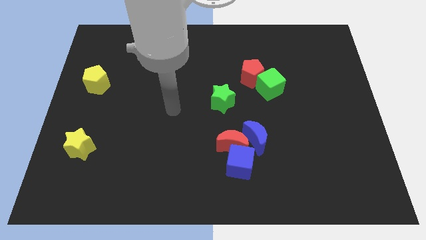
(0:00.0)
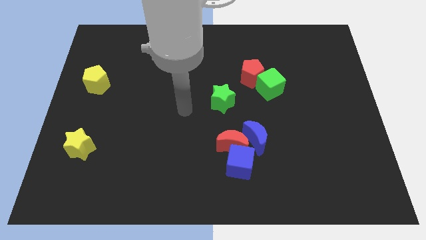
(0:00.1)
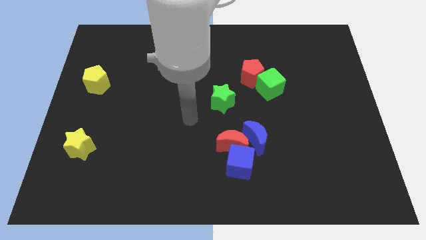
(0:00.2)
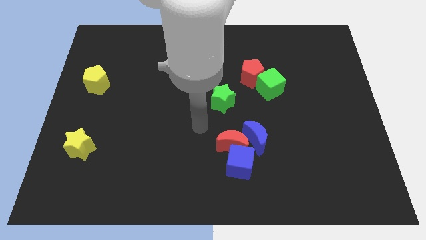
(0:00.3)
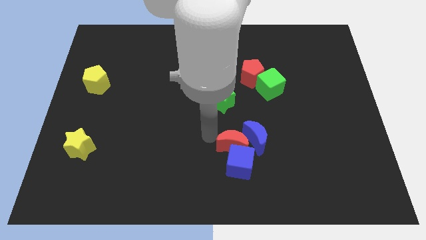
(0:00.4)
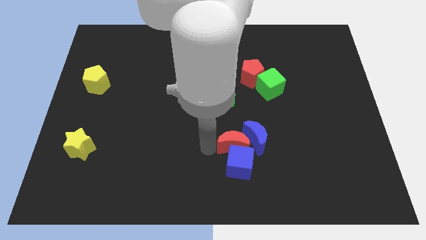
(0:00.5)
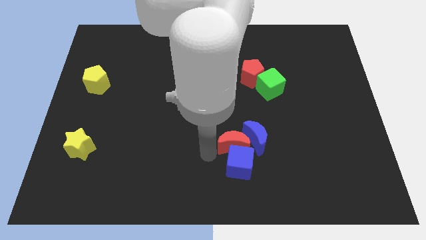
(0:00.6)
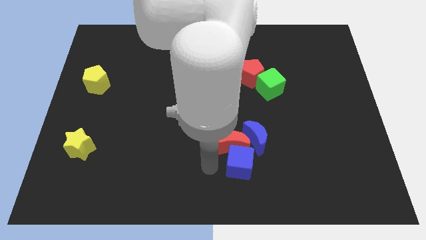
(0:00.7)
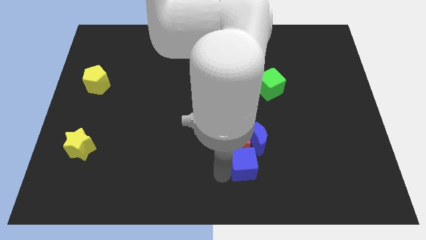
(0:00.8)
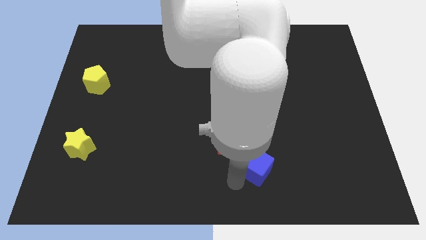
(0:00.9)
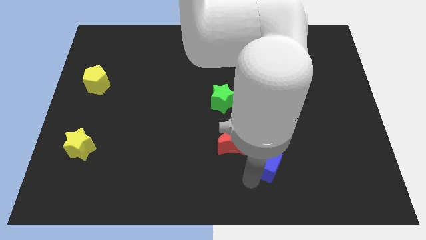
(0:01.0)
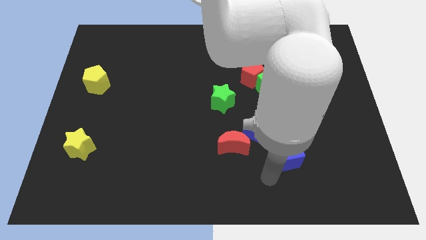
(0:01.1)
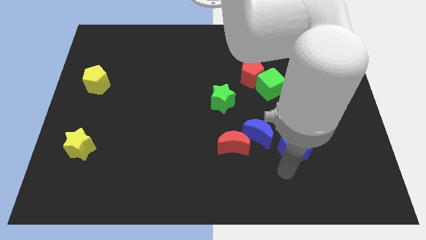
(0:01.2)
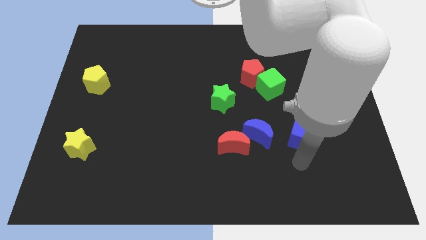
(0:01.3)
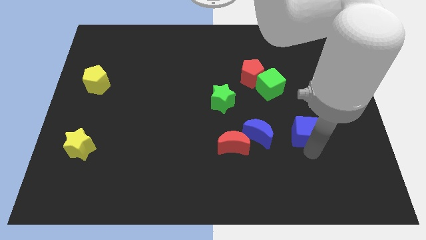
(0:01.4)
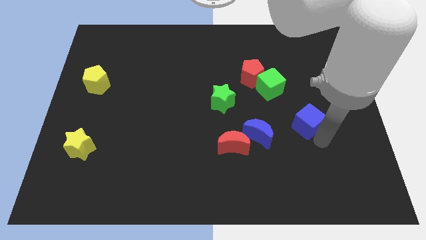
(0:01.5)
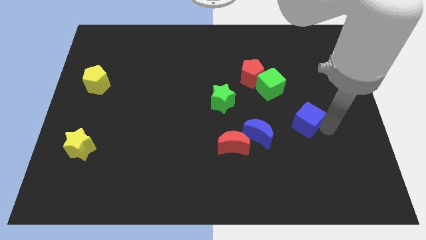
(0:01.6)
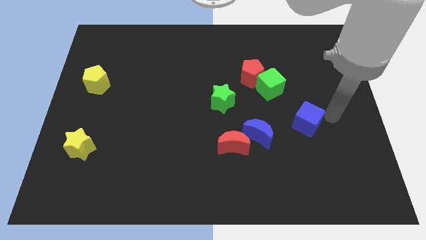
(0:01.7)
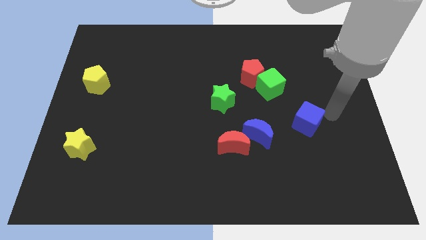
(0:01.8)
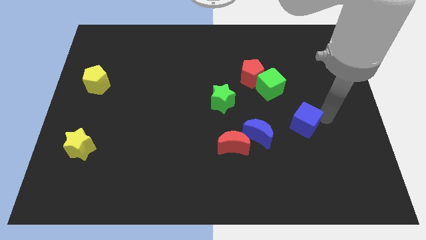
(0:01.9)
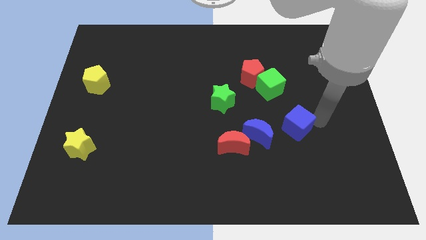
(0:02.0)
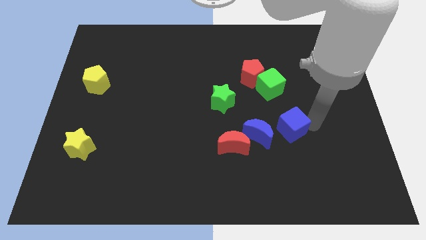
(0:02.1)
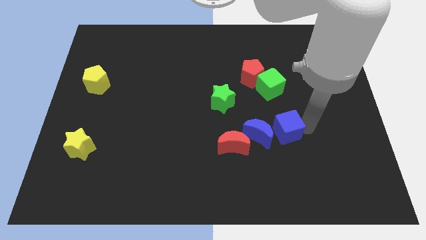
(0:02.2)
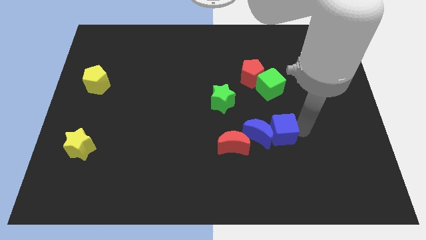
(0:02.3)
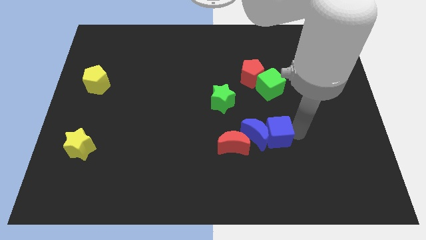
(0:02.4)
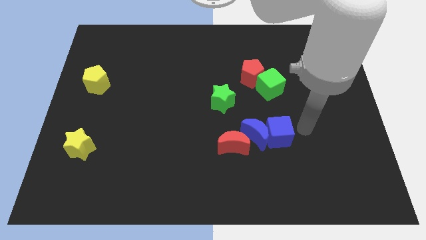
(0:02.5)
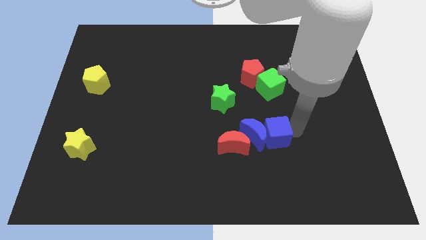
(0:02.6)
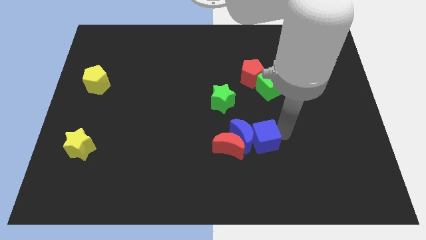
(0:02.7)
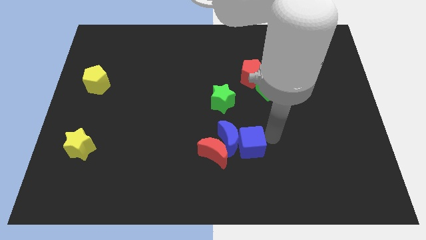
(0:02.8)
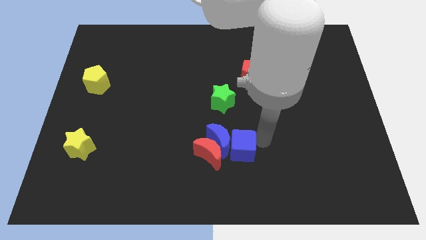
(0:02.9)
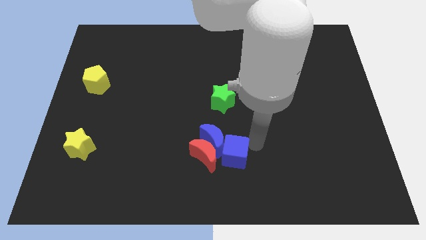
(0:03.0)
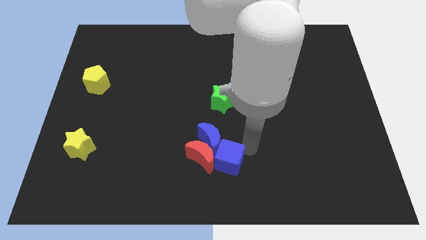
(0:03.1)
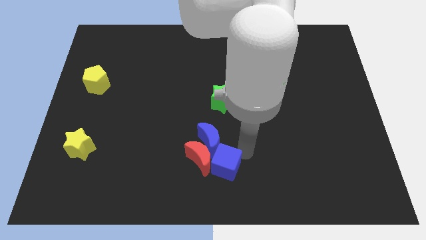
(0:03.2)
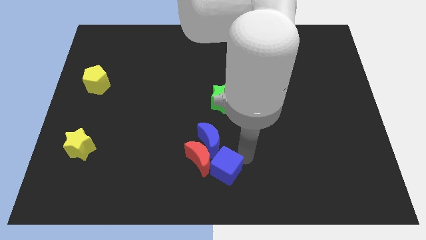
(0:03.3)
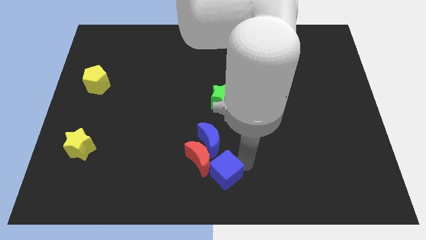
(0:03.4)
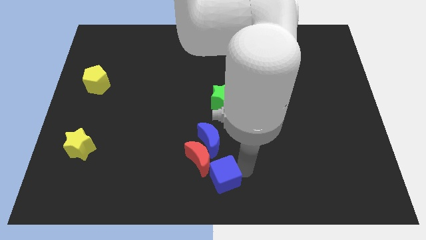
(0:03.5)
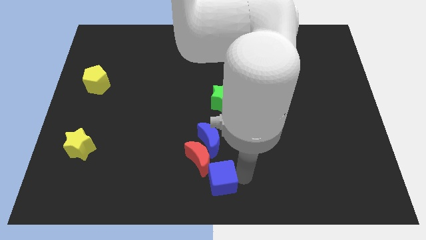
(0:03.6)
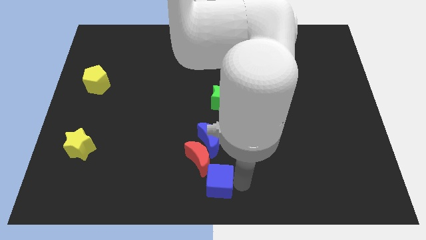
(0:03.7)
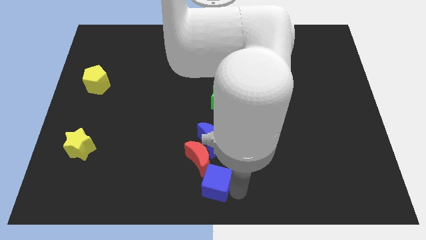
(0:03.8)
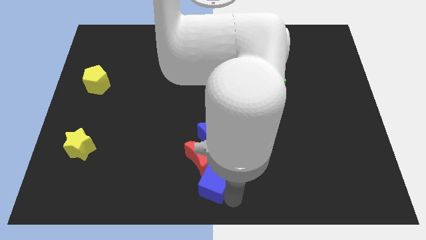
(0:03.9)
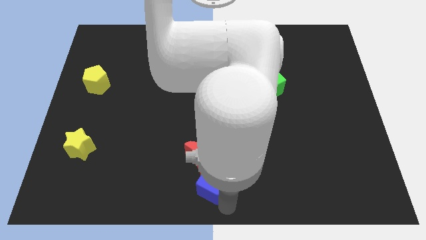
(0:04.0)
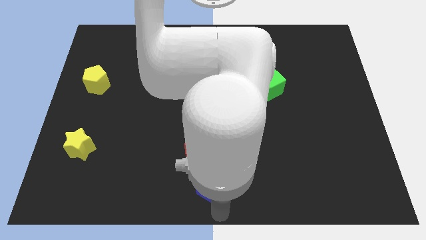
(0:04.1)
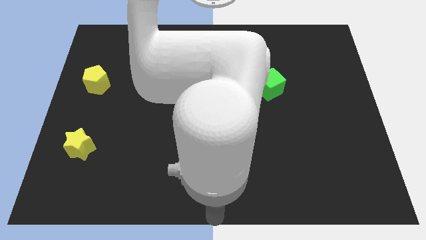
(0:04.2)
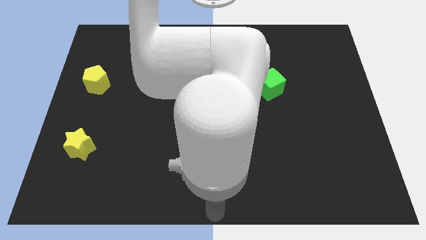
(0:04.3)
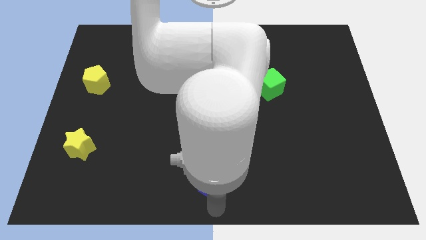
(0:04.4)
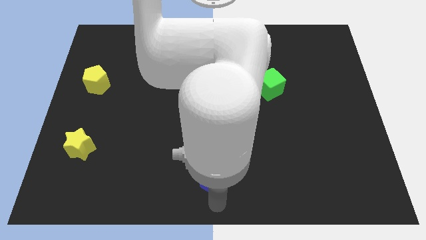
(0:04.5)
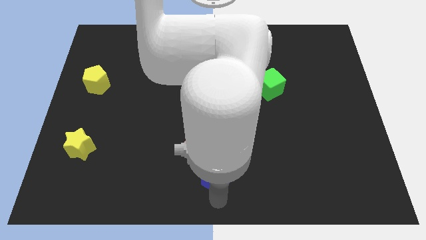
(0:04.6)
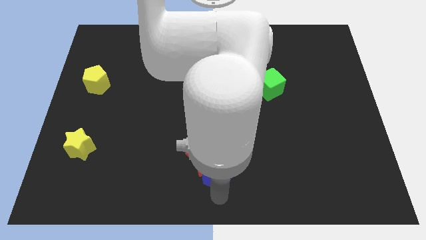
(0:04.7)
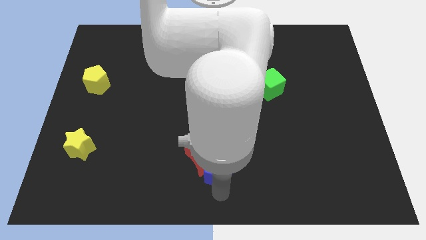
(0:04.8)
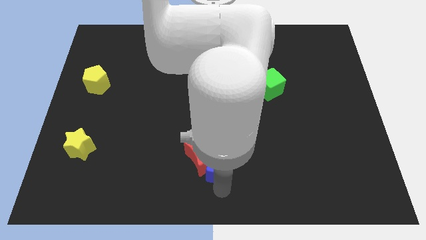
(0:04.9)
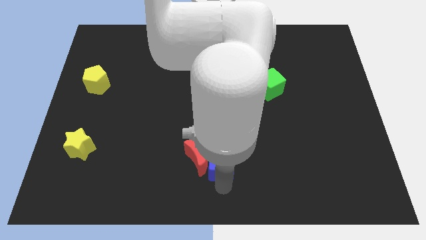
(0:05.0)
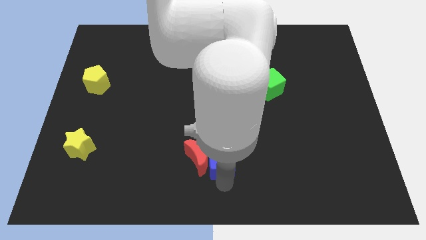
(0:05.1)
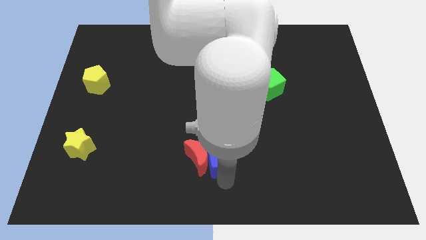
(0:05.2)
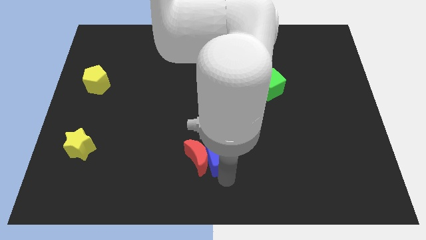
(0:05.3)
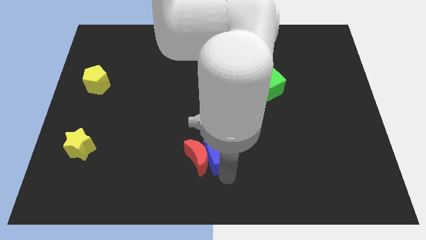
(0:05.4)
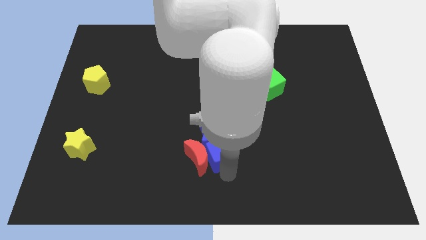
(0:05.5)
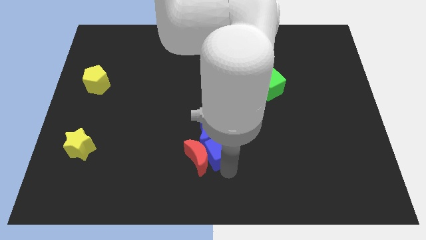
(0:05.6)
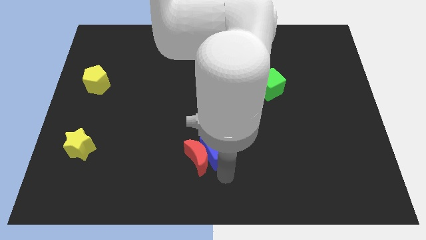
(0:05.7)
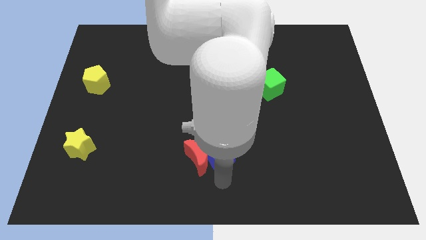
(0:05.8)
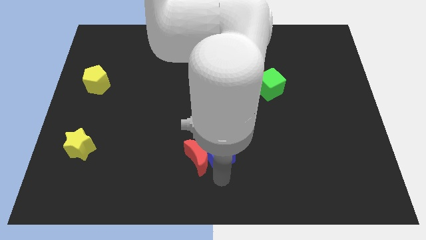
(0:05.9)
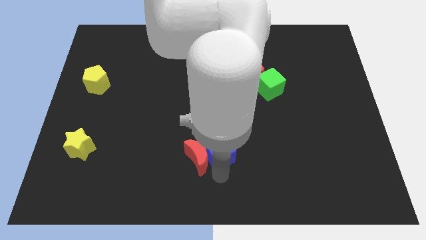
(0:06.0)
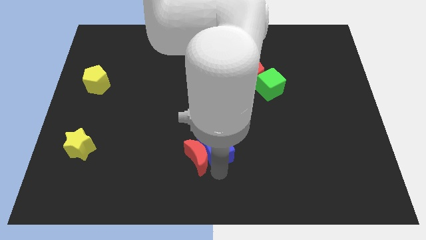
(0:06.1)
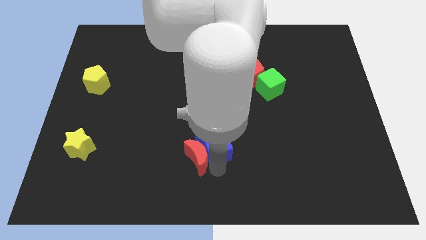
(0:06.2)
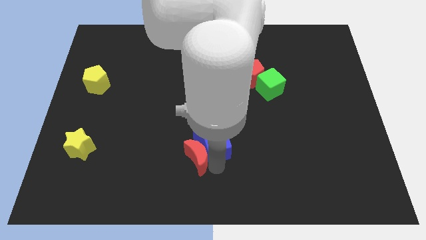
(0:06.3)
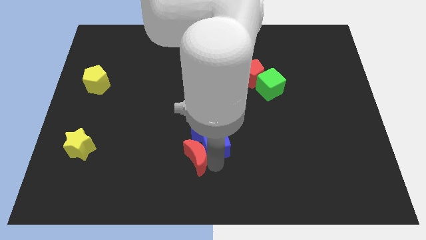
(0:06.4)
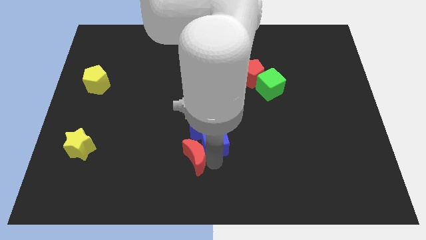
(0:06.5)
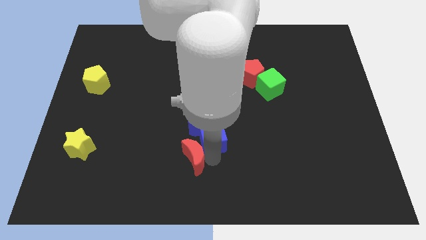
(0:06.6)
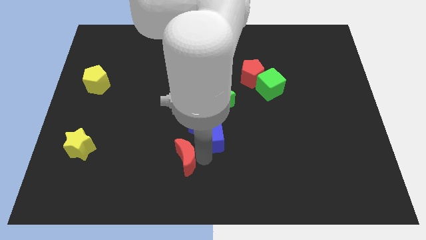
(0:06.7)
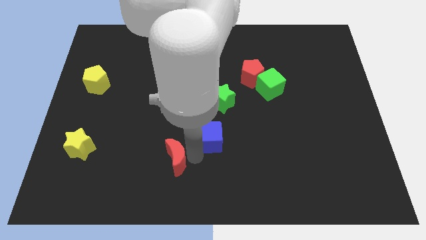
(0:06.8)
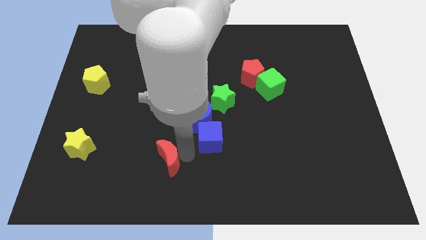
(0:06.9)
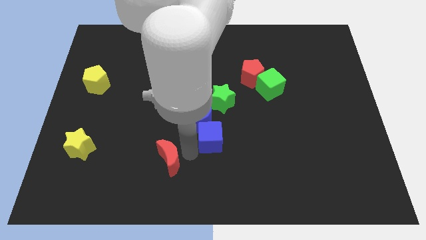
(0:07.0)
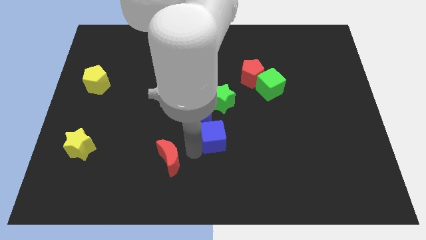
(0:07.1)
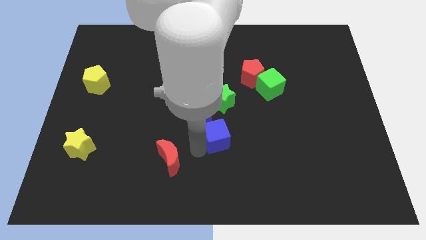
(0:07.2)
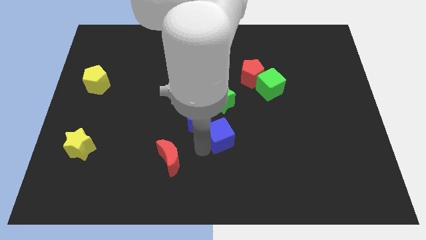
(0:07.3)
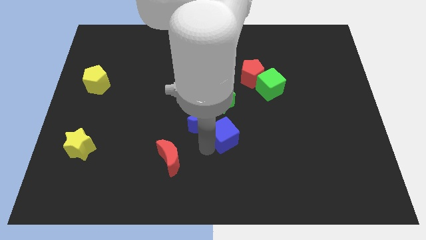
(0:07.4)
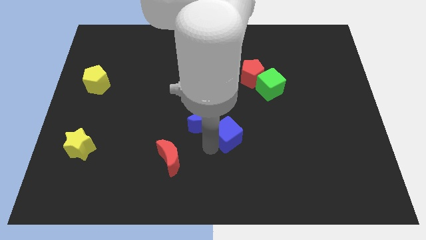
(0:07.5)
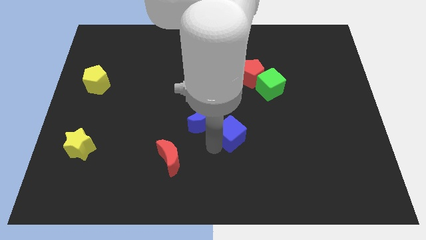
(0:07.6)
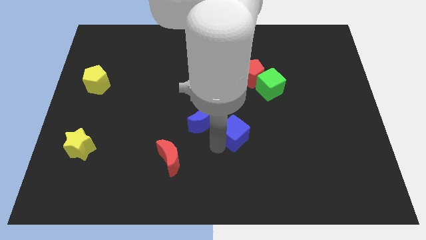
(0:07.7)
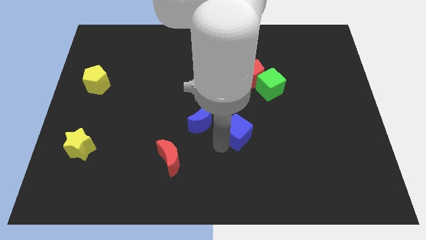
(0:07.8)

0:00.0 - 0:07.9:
move the blue cube to the bottom right of the green star
